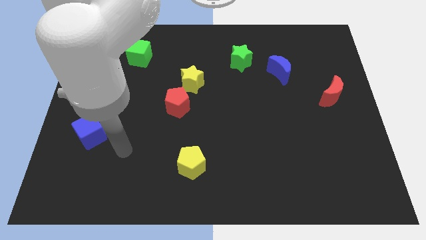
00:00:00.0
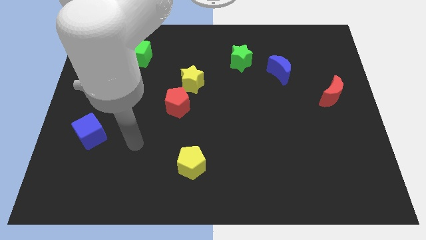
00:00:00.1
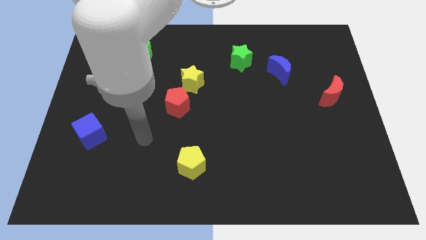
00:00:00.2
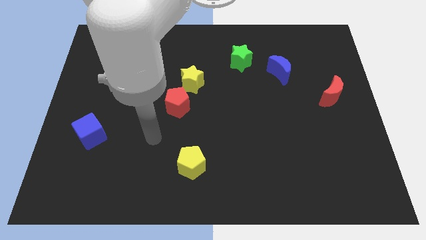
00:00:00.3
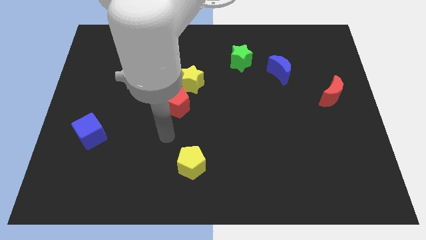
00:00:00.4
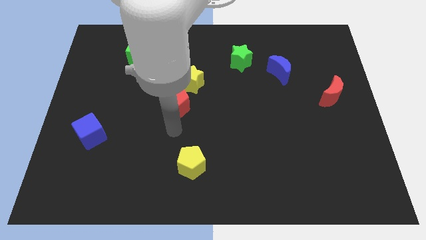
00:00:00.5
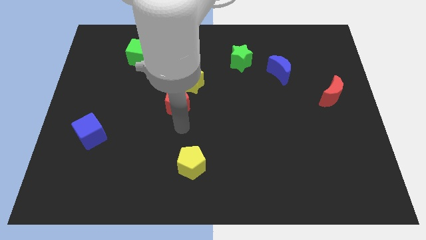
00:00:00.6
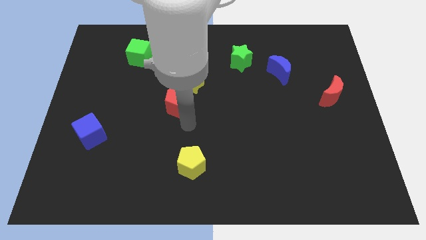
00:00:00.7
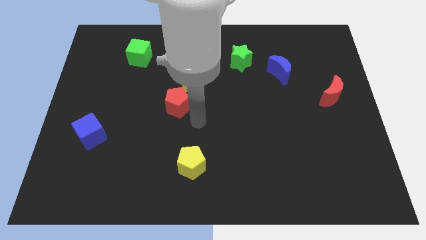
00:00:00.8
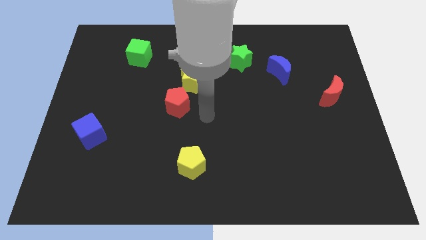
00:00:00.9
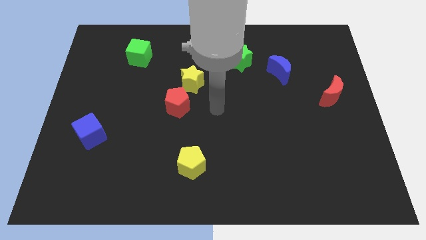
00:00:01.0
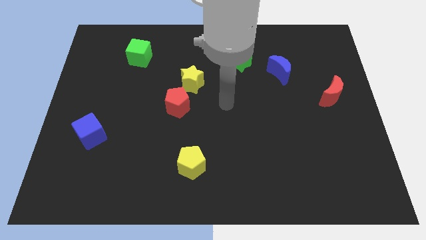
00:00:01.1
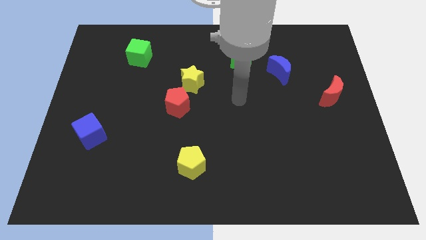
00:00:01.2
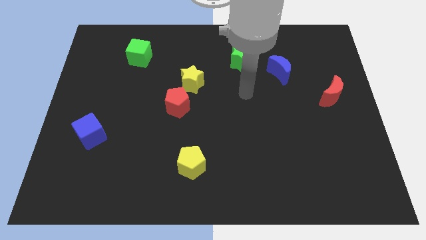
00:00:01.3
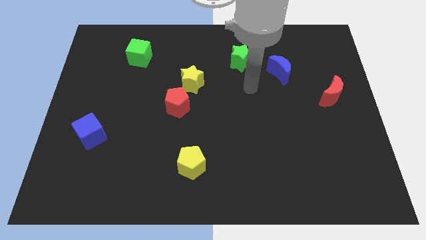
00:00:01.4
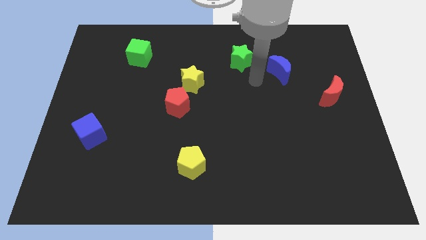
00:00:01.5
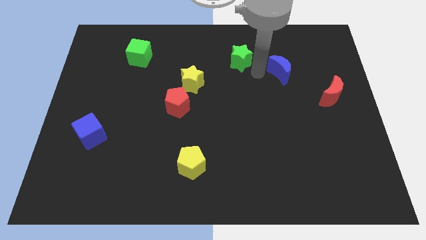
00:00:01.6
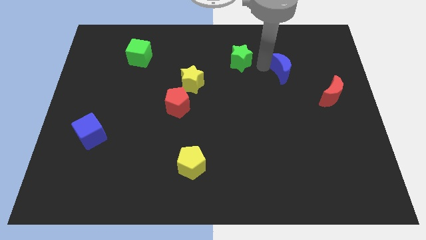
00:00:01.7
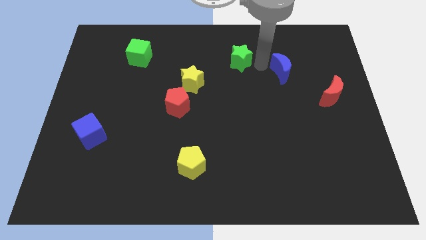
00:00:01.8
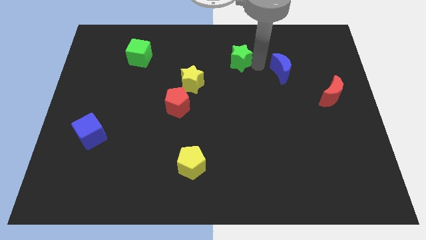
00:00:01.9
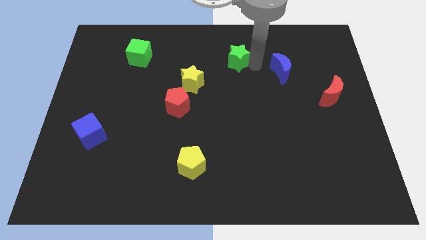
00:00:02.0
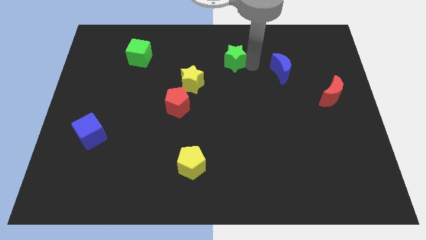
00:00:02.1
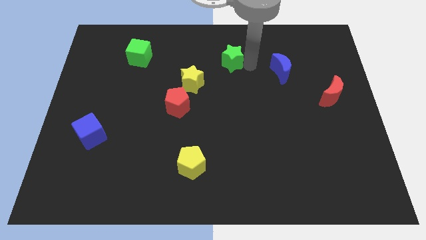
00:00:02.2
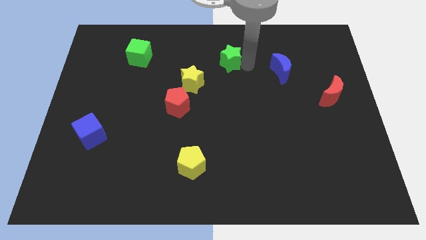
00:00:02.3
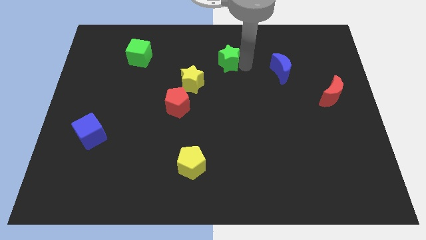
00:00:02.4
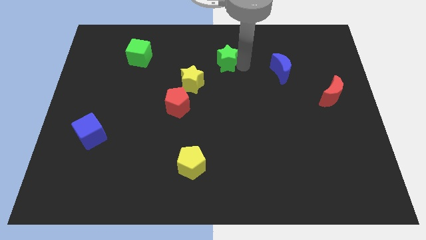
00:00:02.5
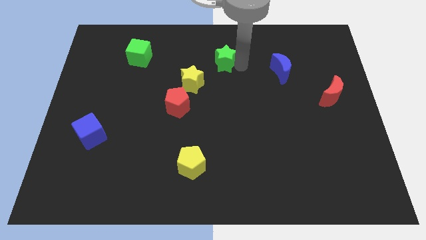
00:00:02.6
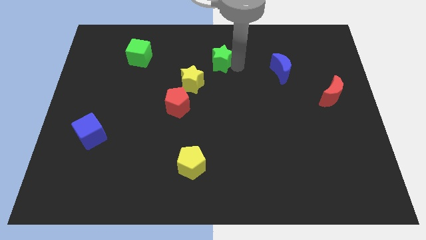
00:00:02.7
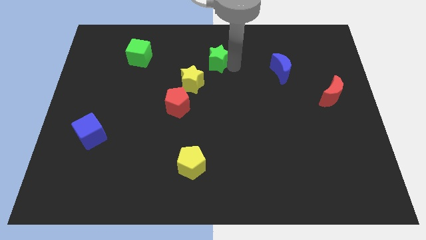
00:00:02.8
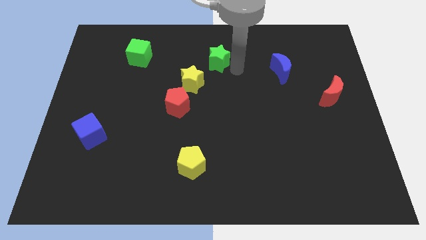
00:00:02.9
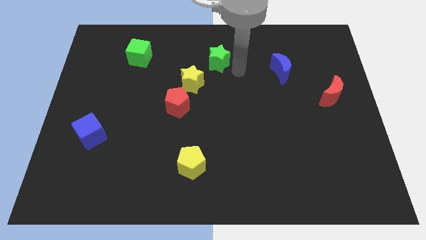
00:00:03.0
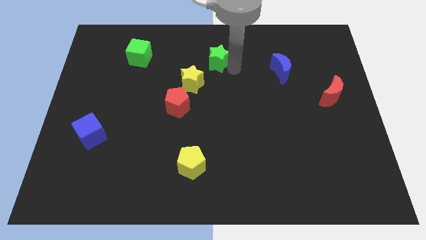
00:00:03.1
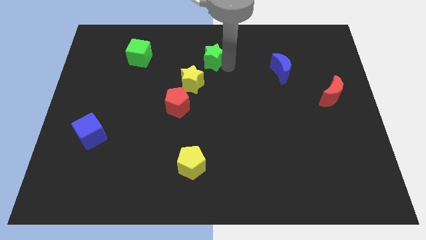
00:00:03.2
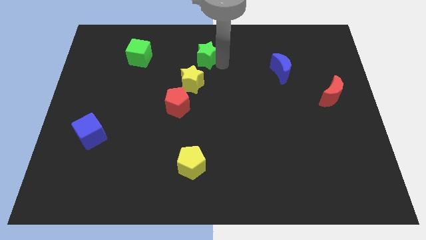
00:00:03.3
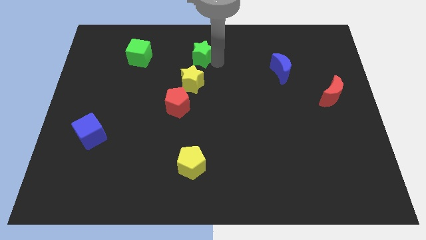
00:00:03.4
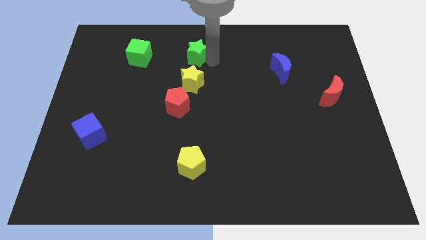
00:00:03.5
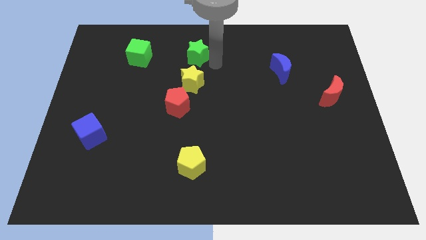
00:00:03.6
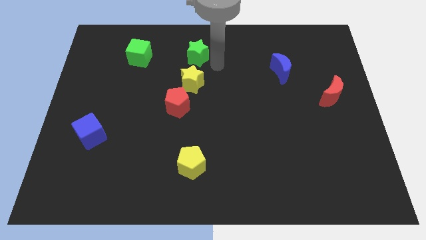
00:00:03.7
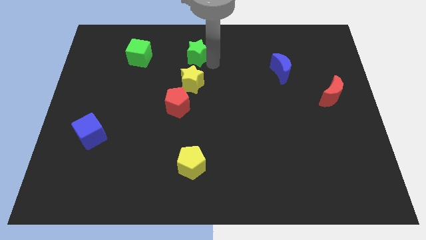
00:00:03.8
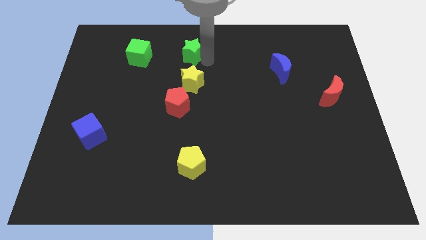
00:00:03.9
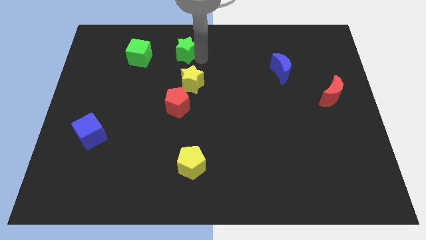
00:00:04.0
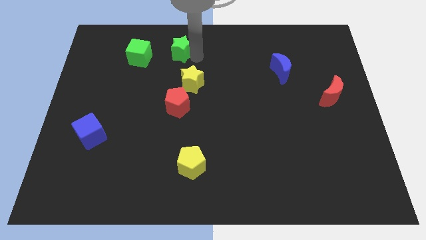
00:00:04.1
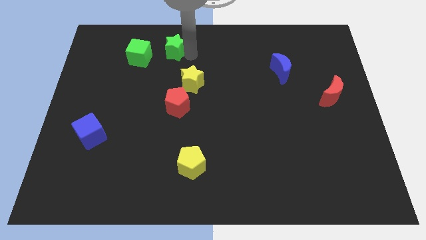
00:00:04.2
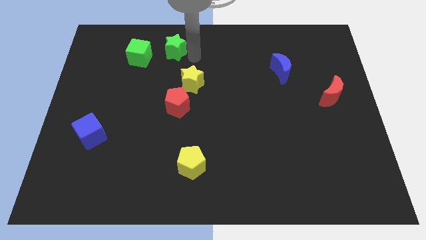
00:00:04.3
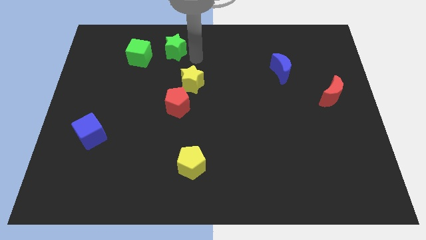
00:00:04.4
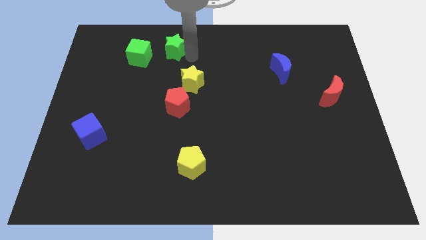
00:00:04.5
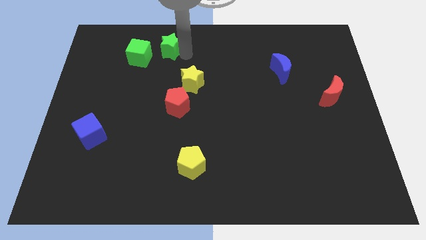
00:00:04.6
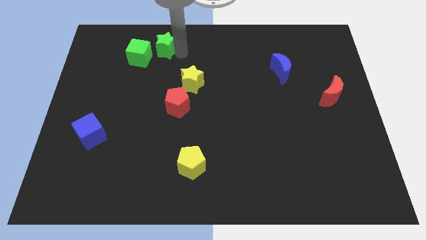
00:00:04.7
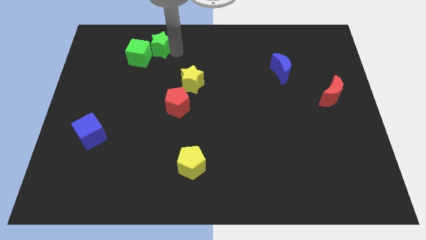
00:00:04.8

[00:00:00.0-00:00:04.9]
move the green star left

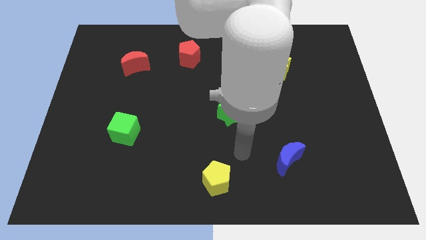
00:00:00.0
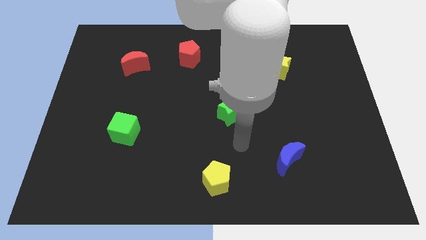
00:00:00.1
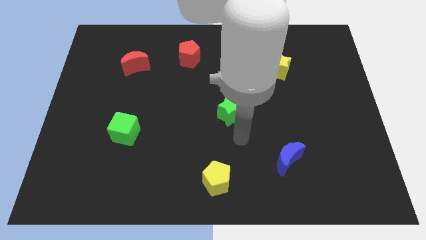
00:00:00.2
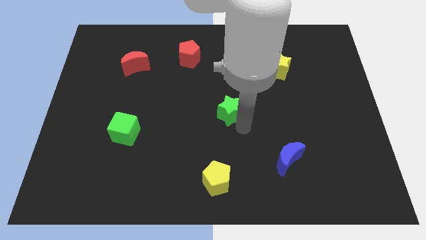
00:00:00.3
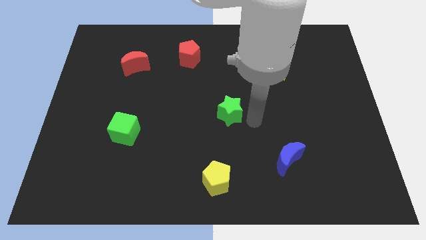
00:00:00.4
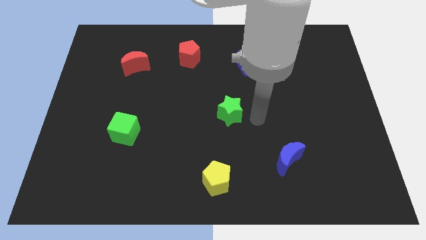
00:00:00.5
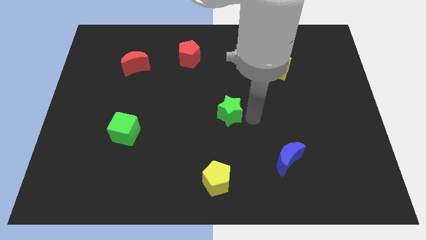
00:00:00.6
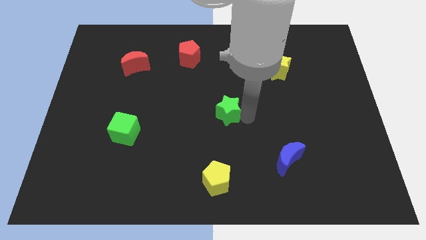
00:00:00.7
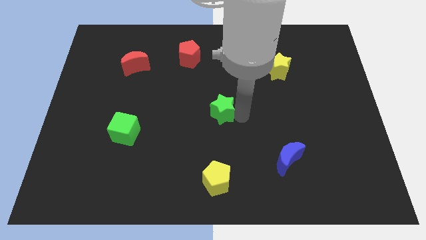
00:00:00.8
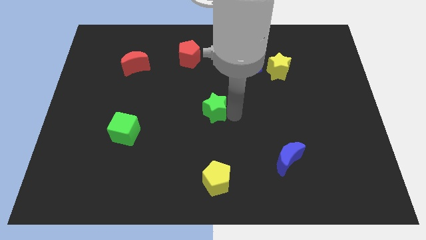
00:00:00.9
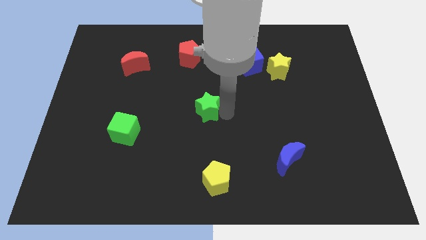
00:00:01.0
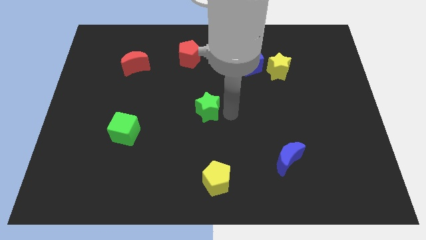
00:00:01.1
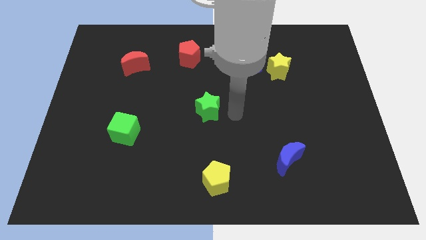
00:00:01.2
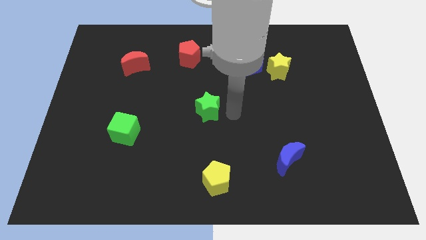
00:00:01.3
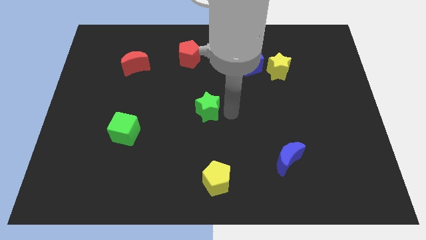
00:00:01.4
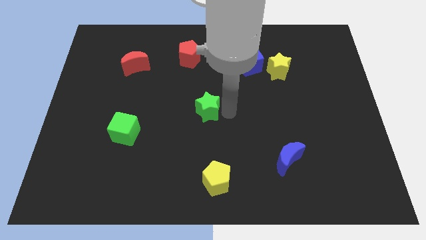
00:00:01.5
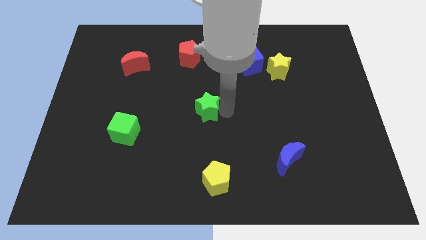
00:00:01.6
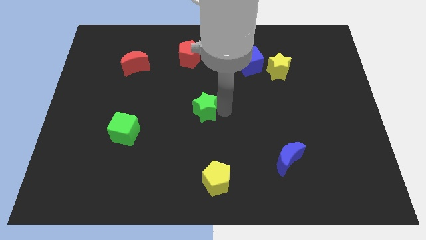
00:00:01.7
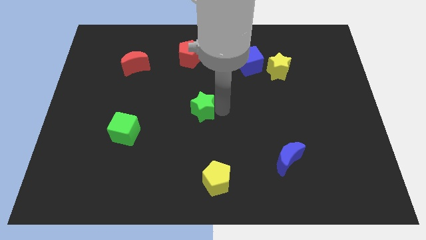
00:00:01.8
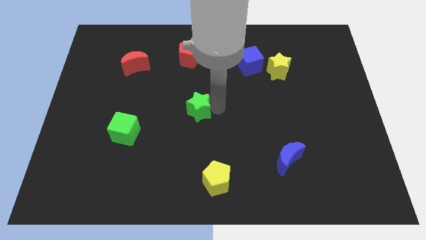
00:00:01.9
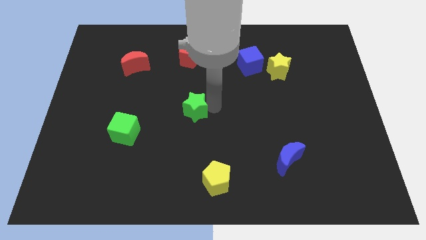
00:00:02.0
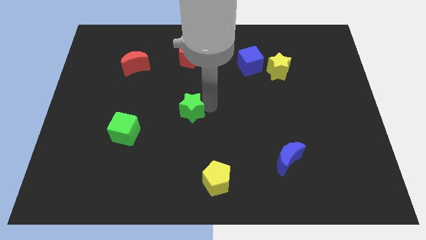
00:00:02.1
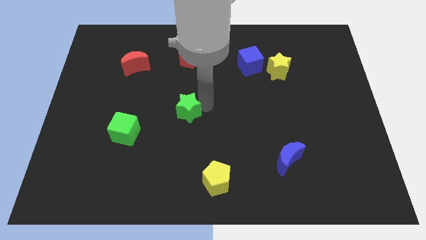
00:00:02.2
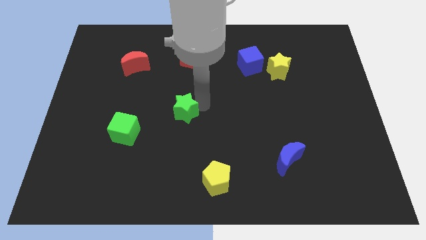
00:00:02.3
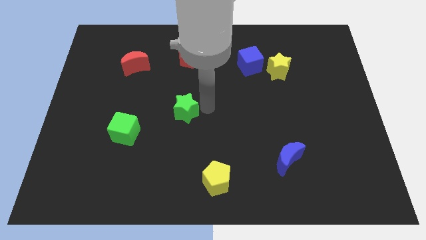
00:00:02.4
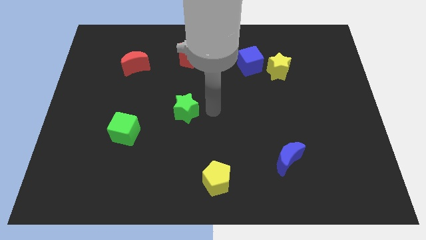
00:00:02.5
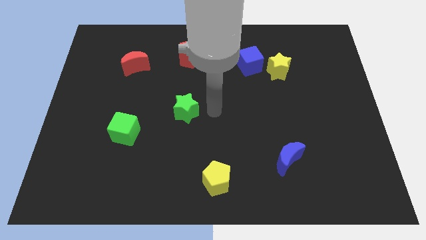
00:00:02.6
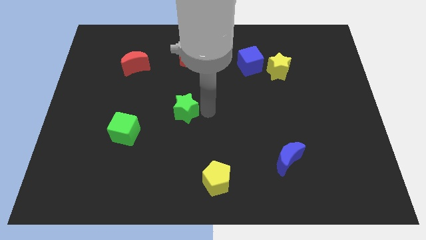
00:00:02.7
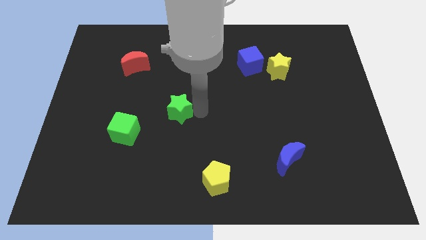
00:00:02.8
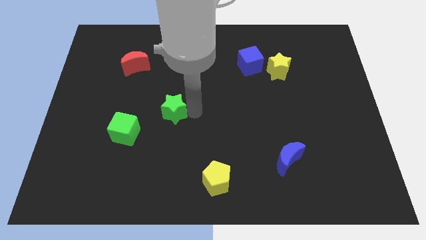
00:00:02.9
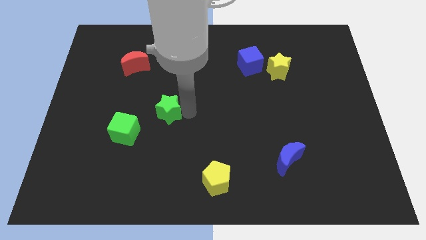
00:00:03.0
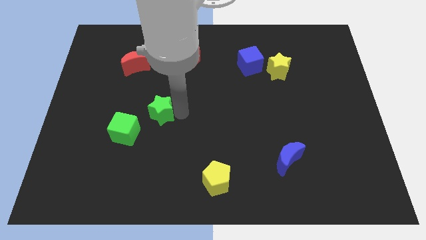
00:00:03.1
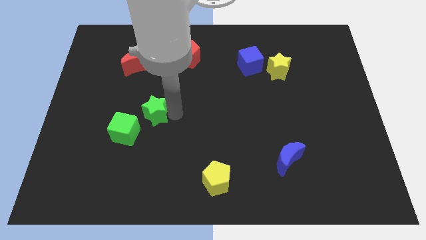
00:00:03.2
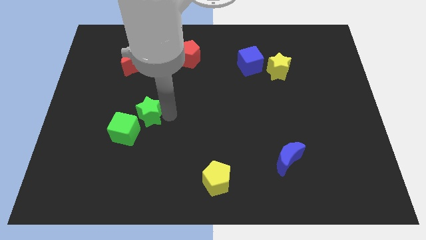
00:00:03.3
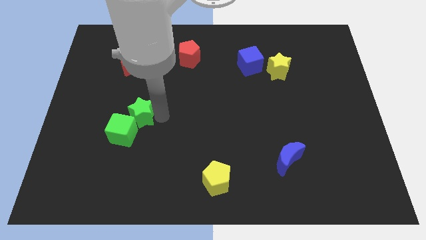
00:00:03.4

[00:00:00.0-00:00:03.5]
slide the green star to the left
